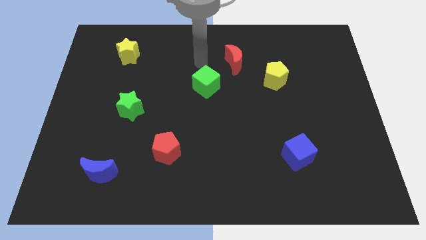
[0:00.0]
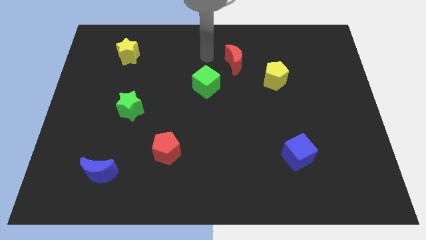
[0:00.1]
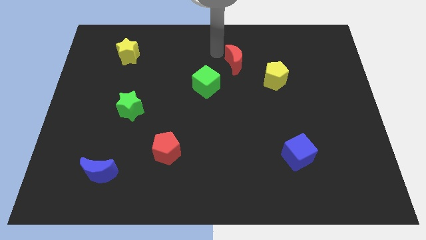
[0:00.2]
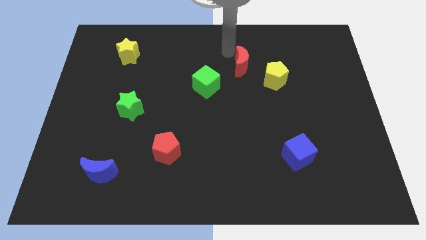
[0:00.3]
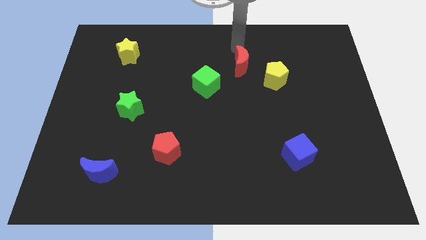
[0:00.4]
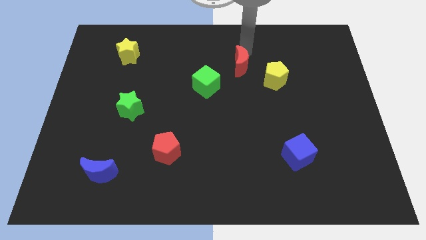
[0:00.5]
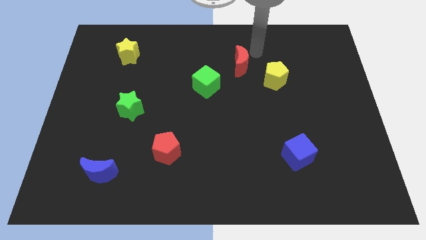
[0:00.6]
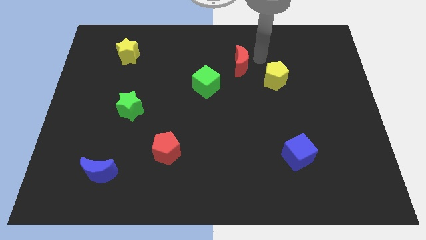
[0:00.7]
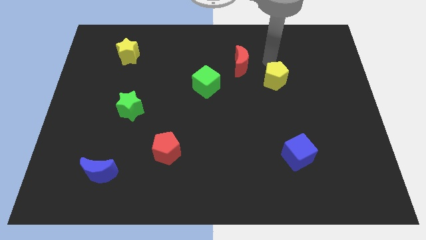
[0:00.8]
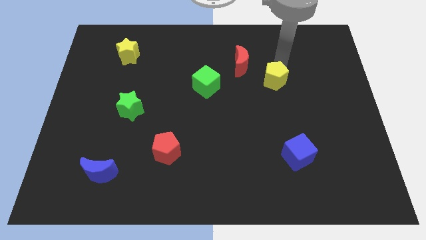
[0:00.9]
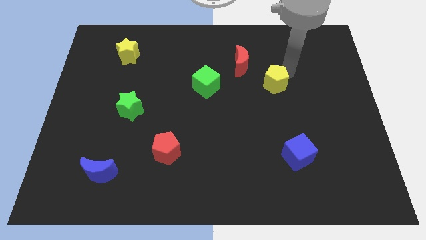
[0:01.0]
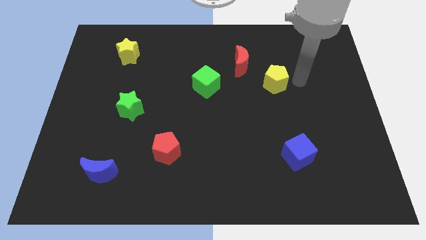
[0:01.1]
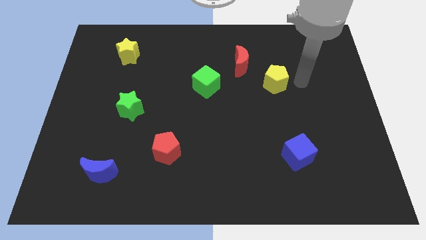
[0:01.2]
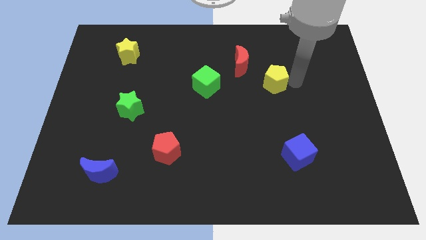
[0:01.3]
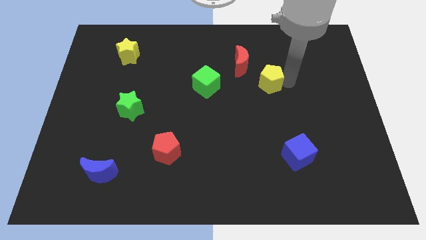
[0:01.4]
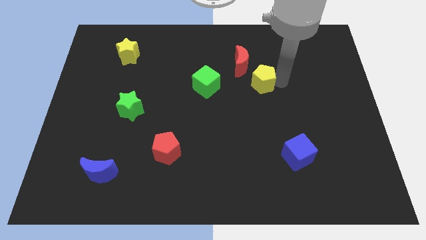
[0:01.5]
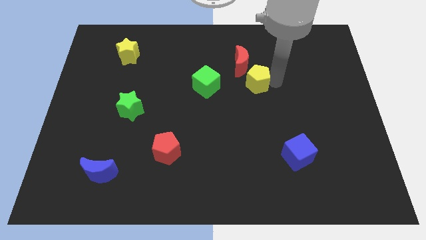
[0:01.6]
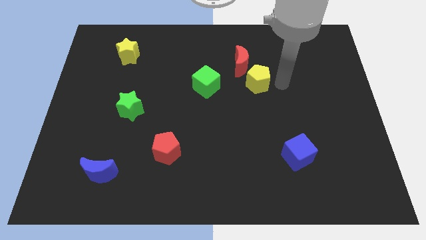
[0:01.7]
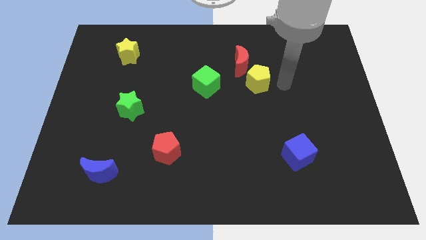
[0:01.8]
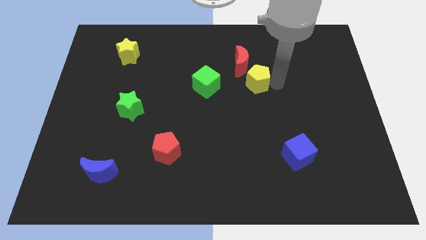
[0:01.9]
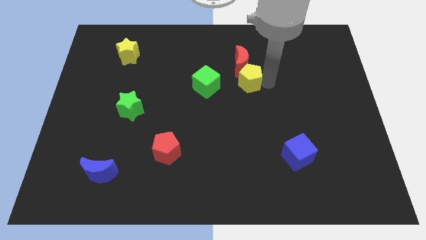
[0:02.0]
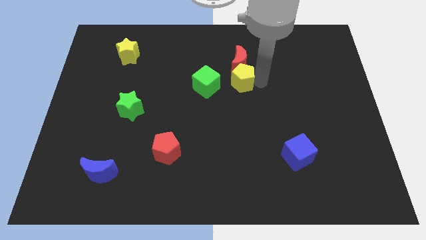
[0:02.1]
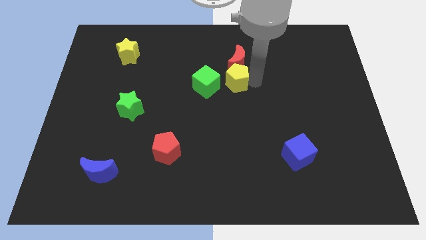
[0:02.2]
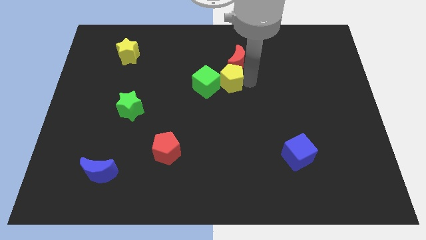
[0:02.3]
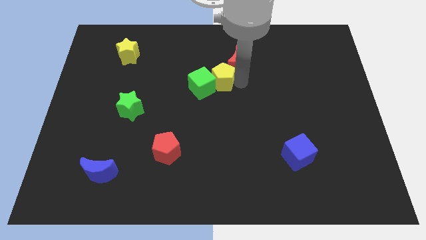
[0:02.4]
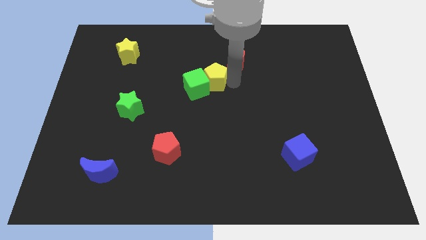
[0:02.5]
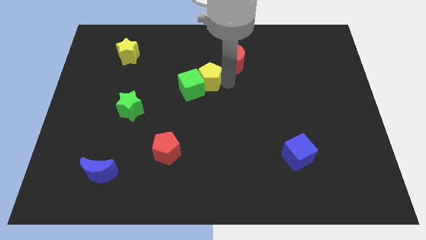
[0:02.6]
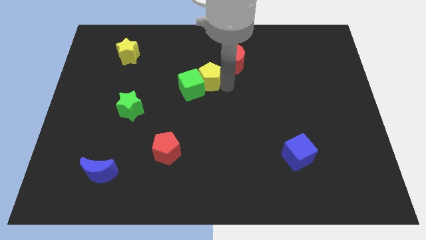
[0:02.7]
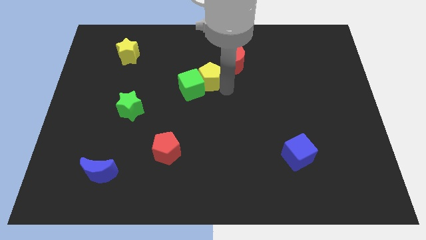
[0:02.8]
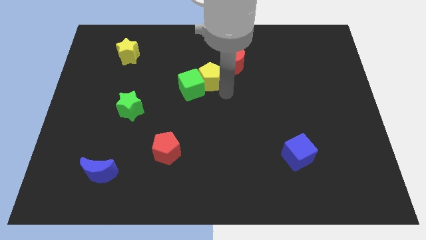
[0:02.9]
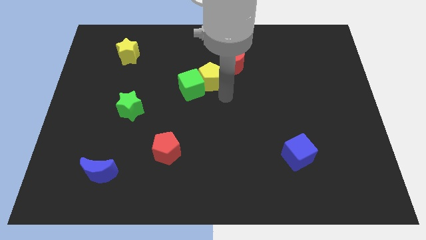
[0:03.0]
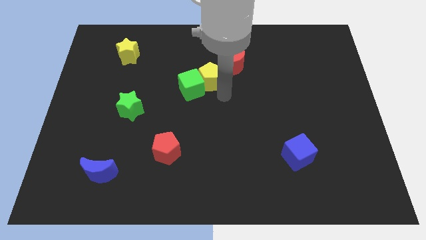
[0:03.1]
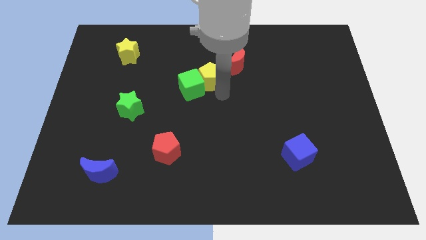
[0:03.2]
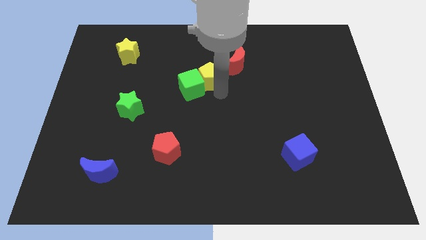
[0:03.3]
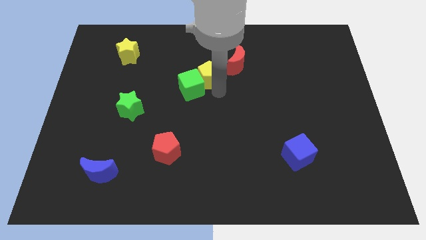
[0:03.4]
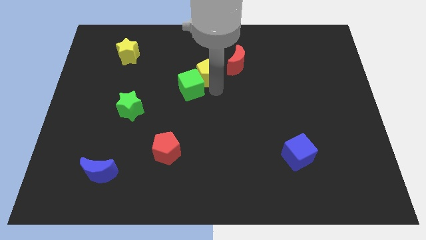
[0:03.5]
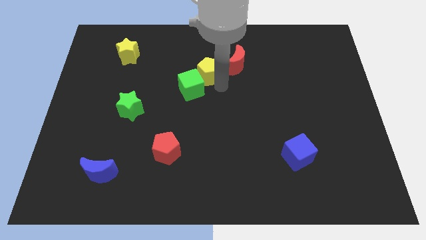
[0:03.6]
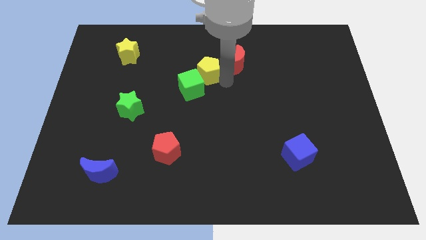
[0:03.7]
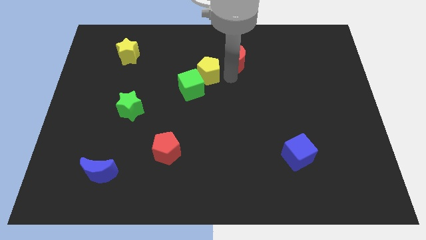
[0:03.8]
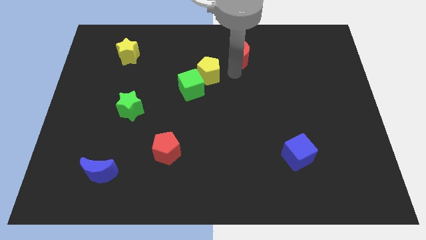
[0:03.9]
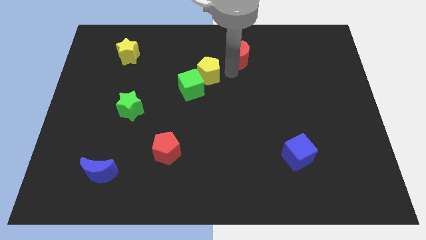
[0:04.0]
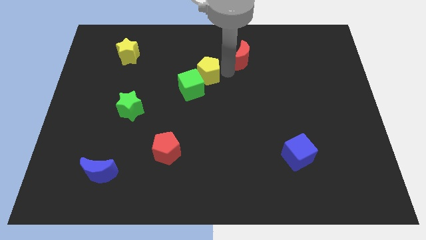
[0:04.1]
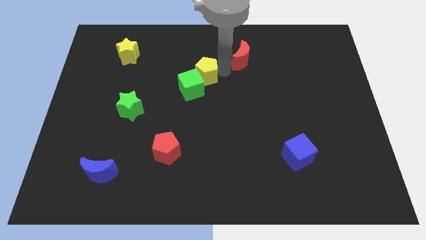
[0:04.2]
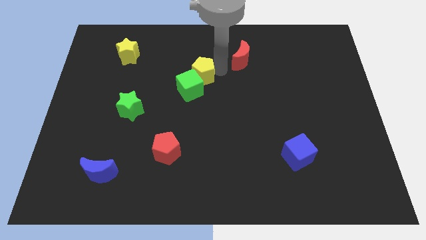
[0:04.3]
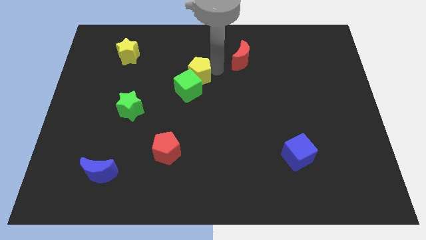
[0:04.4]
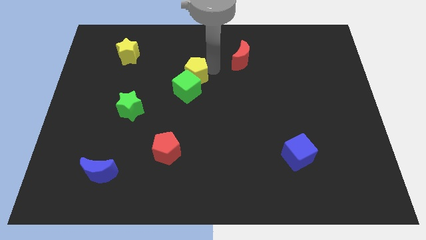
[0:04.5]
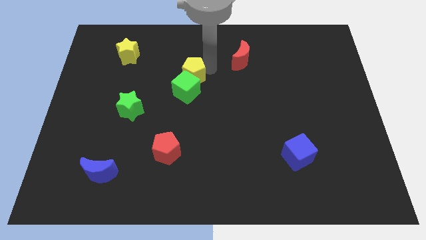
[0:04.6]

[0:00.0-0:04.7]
slide the yellow pentagon left

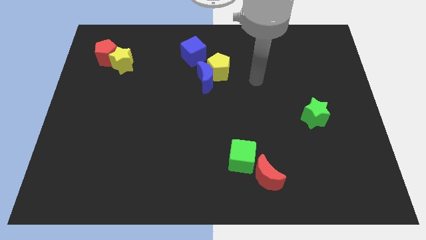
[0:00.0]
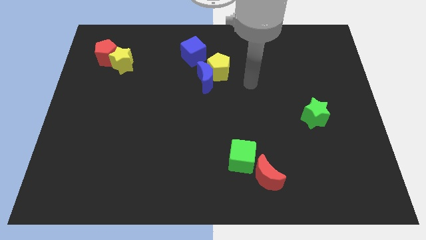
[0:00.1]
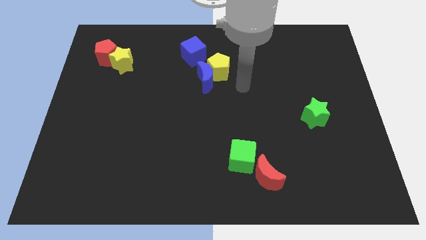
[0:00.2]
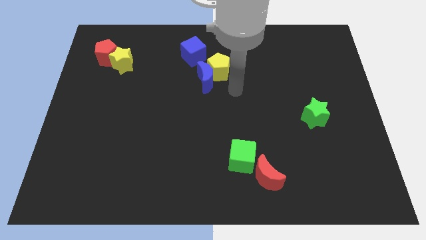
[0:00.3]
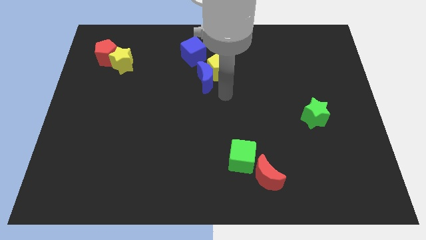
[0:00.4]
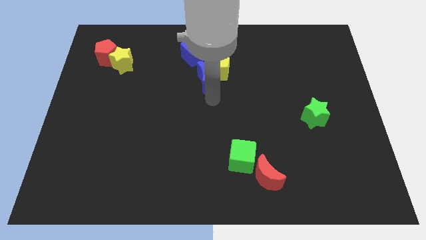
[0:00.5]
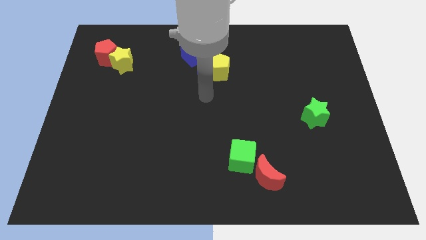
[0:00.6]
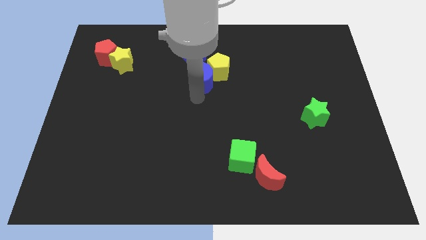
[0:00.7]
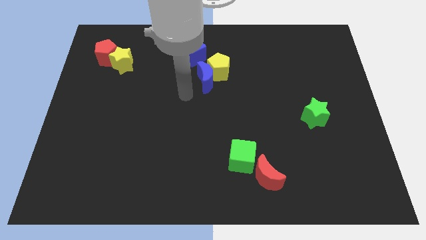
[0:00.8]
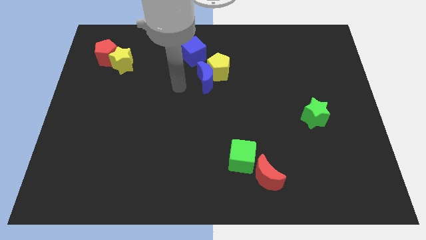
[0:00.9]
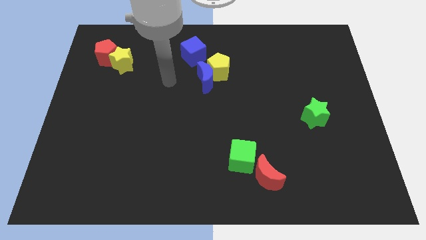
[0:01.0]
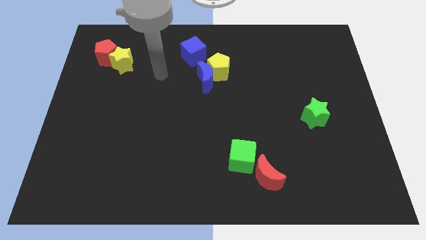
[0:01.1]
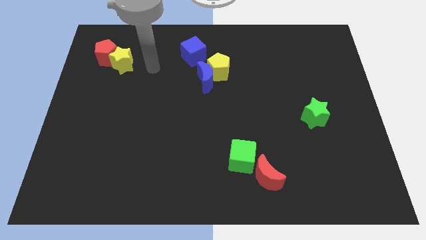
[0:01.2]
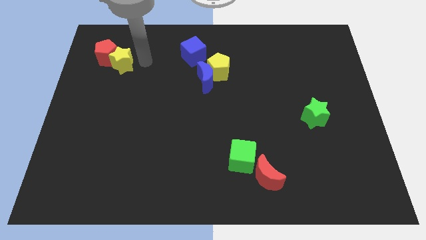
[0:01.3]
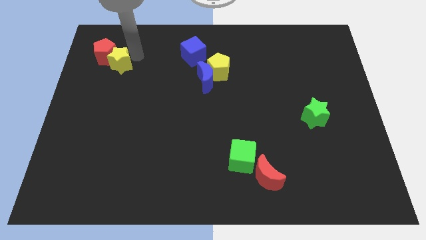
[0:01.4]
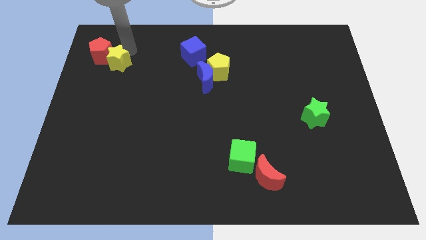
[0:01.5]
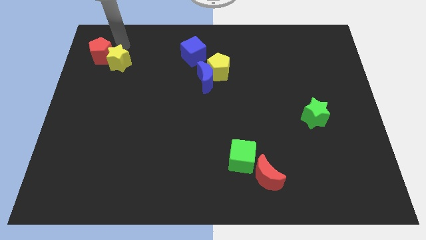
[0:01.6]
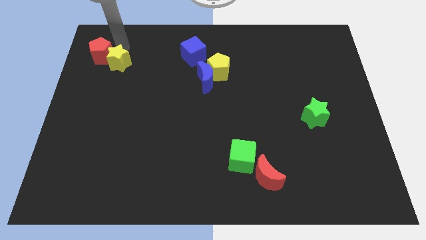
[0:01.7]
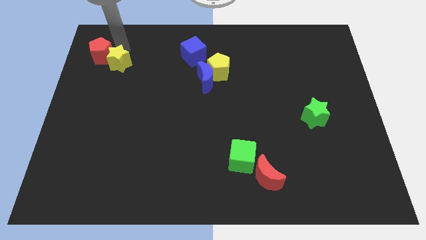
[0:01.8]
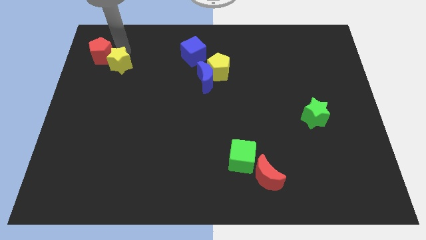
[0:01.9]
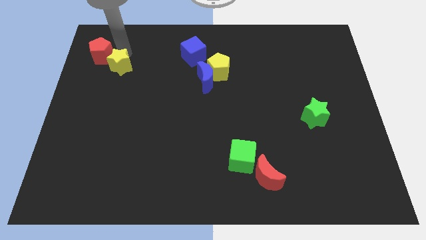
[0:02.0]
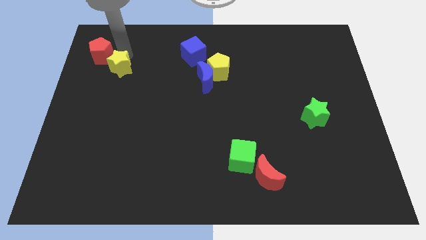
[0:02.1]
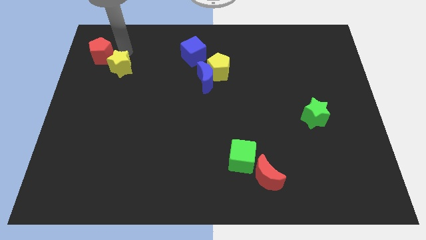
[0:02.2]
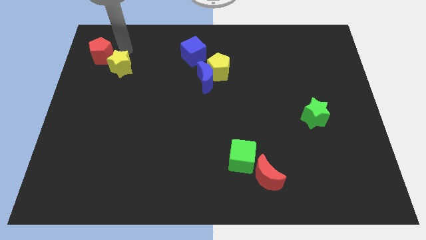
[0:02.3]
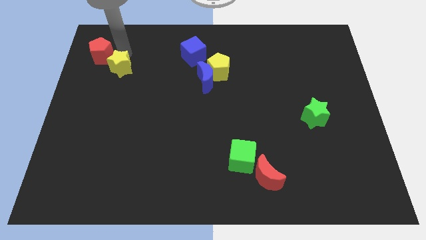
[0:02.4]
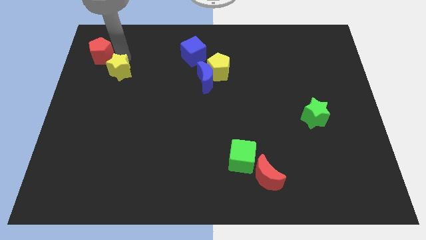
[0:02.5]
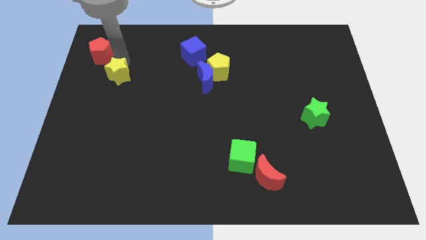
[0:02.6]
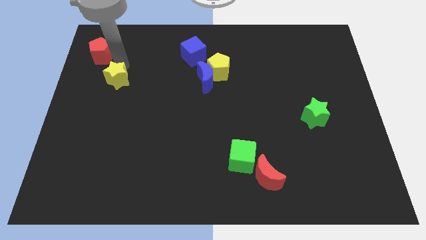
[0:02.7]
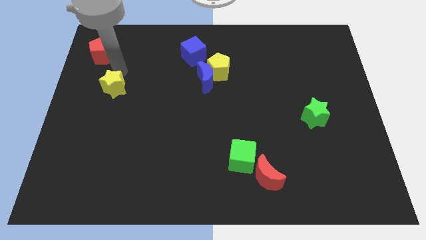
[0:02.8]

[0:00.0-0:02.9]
slide the yellow star a bit down

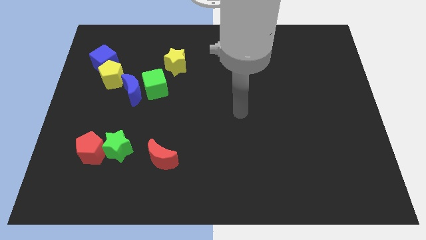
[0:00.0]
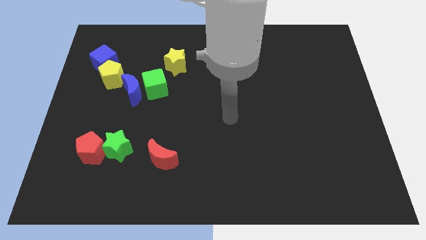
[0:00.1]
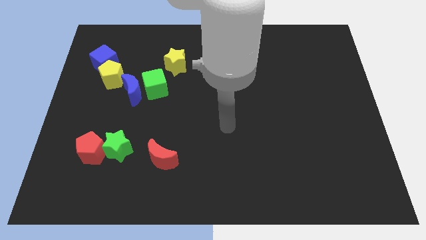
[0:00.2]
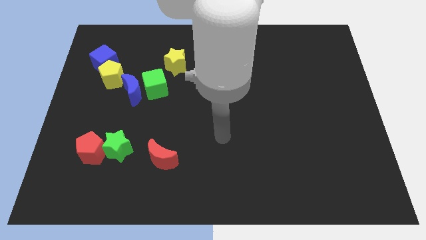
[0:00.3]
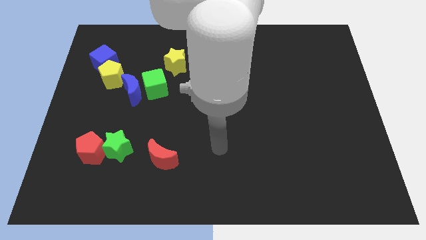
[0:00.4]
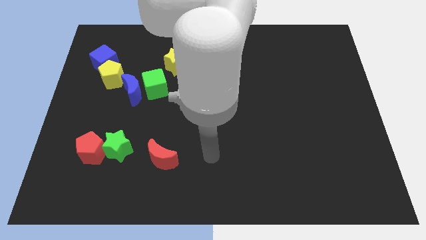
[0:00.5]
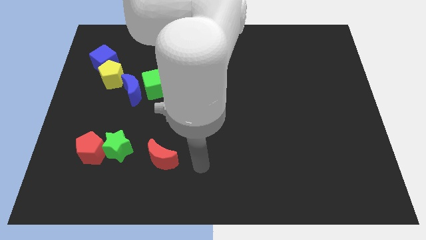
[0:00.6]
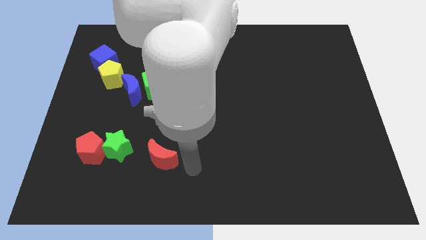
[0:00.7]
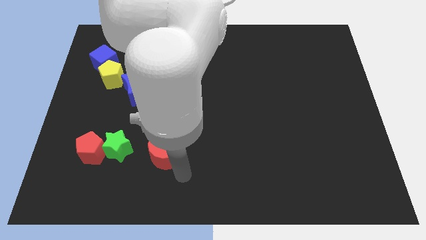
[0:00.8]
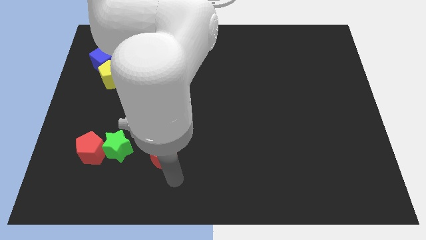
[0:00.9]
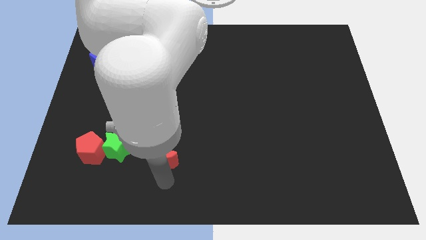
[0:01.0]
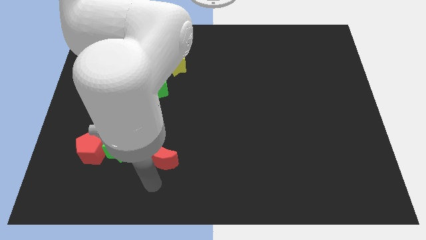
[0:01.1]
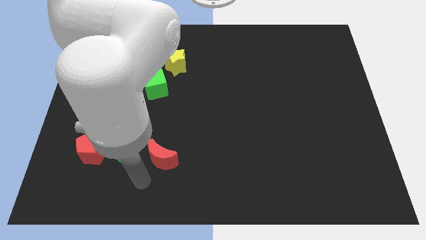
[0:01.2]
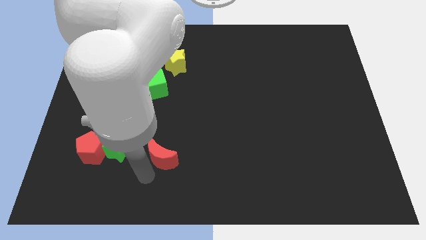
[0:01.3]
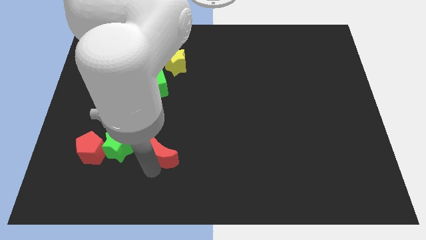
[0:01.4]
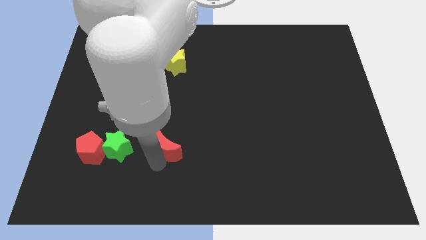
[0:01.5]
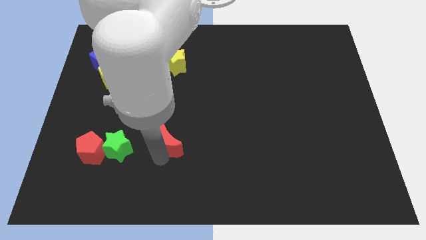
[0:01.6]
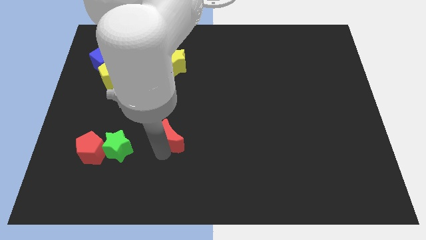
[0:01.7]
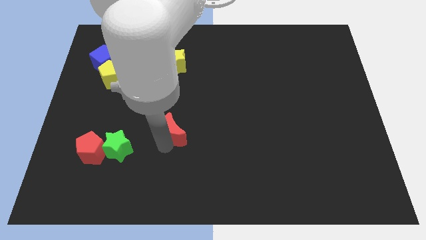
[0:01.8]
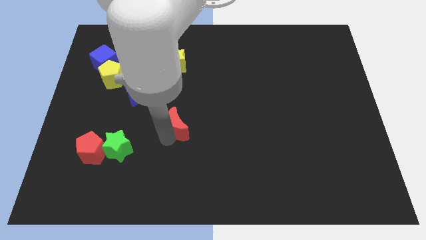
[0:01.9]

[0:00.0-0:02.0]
move the red moon a little bit up and to the right
